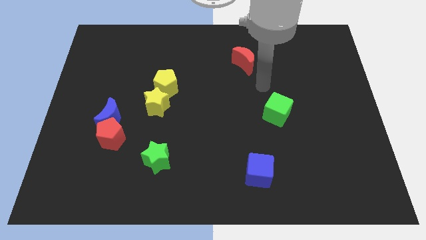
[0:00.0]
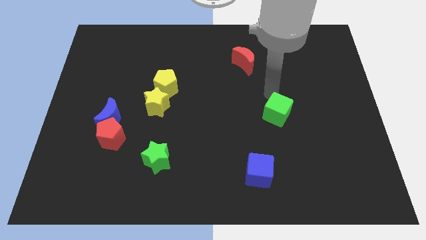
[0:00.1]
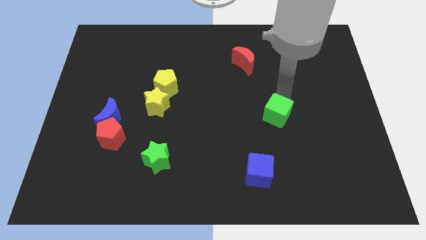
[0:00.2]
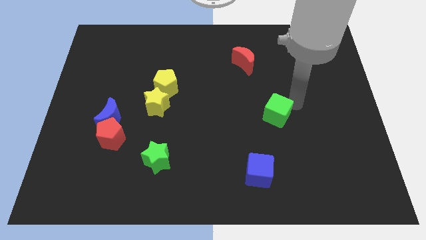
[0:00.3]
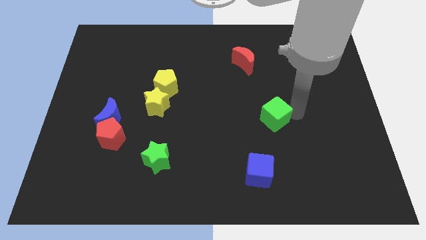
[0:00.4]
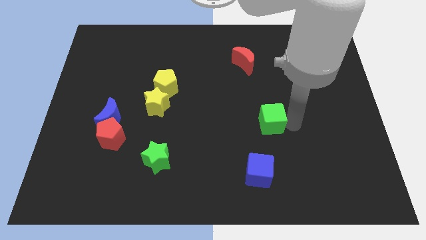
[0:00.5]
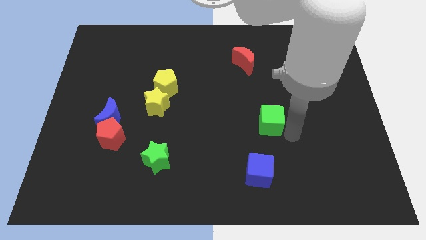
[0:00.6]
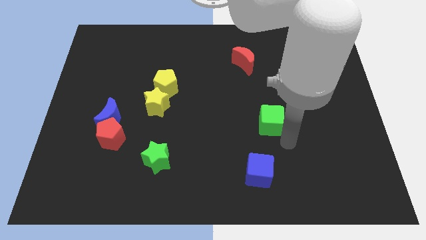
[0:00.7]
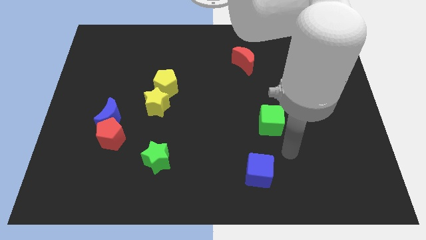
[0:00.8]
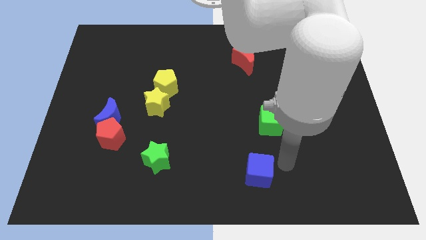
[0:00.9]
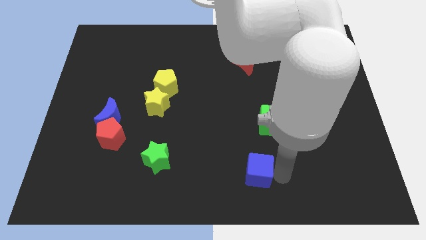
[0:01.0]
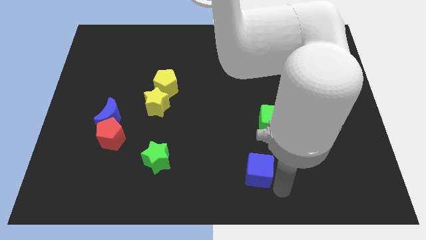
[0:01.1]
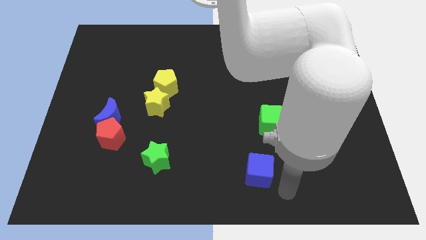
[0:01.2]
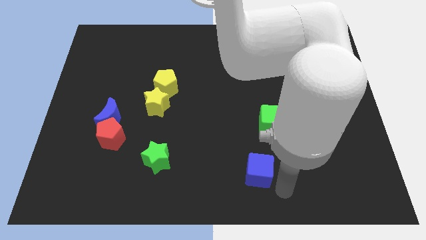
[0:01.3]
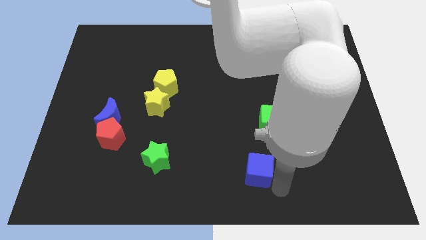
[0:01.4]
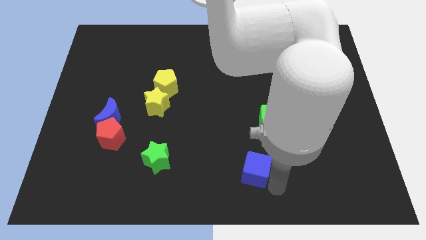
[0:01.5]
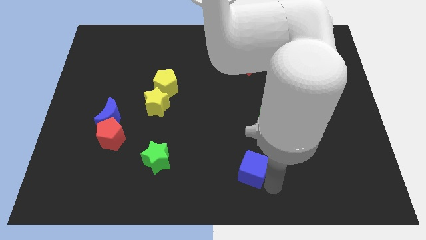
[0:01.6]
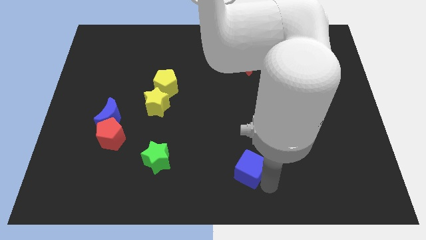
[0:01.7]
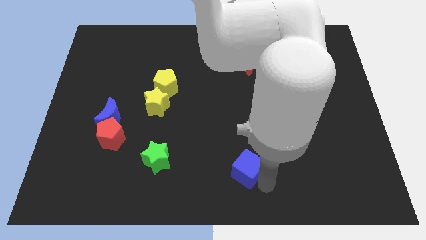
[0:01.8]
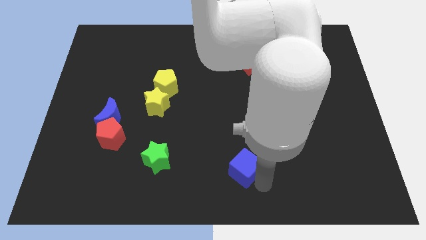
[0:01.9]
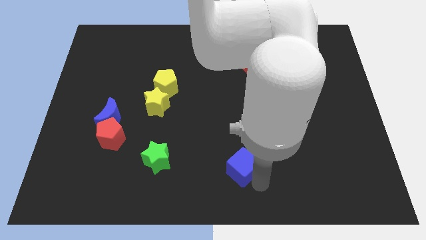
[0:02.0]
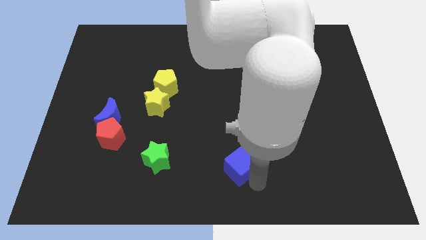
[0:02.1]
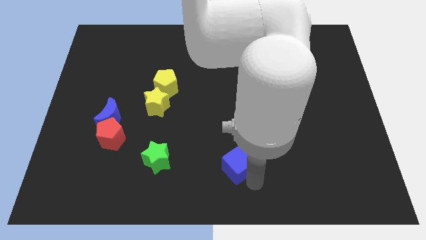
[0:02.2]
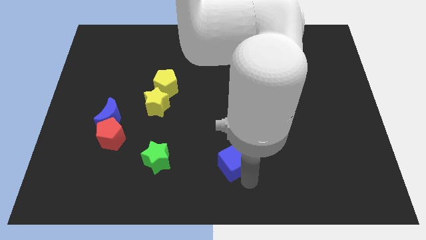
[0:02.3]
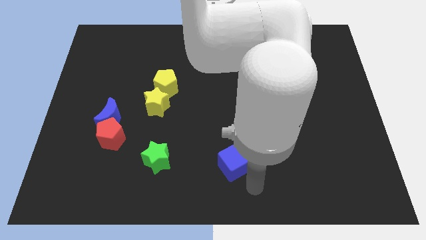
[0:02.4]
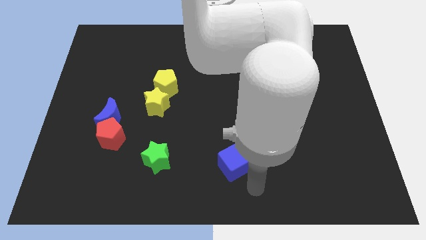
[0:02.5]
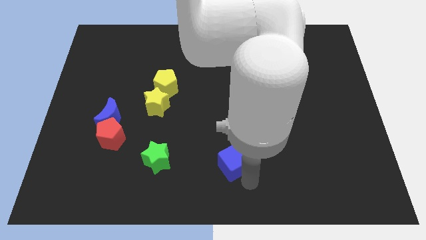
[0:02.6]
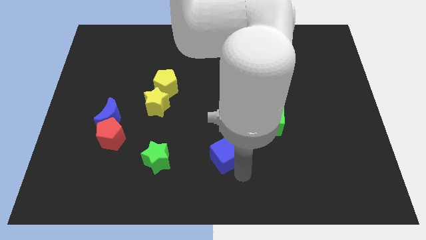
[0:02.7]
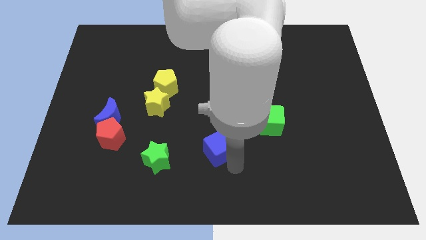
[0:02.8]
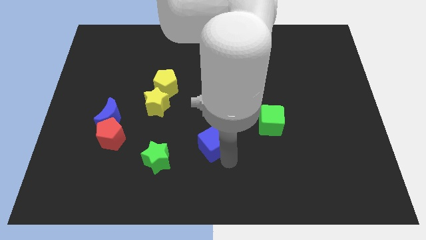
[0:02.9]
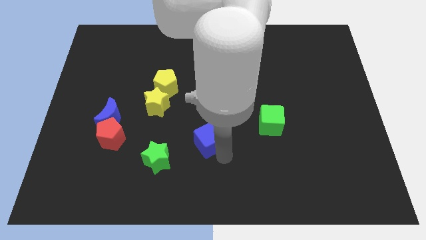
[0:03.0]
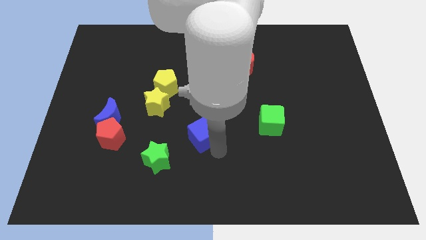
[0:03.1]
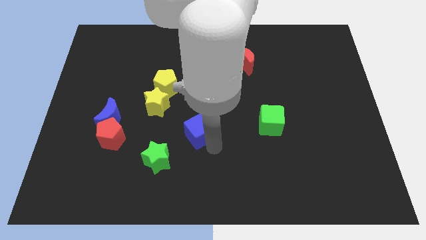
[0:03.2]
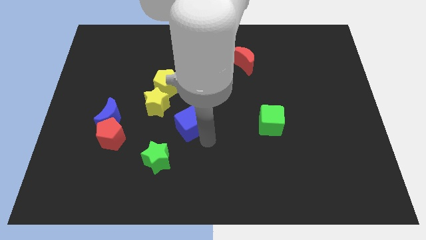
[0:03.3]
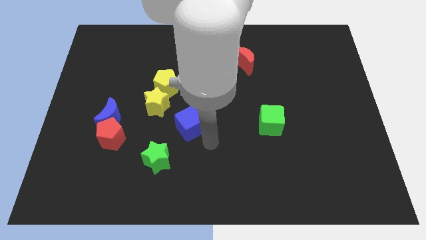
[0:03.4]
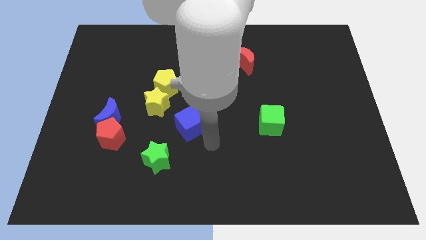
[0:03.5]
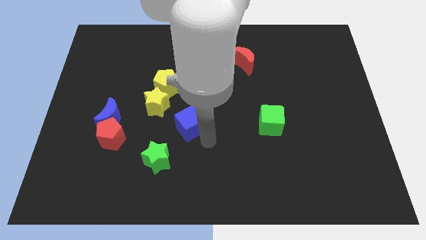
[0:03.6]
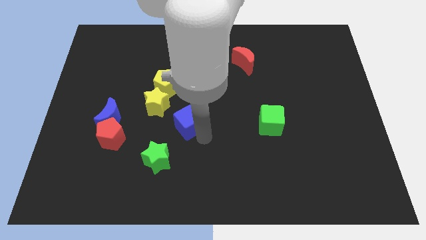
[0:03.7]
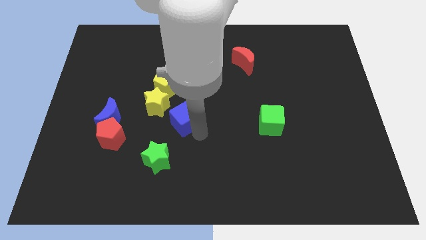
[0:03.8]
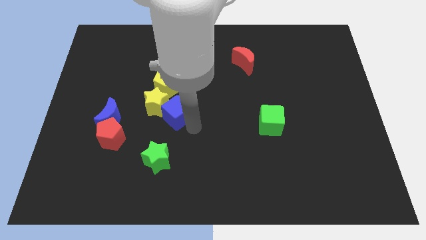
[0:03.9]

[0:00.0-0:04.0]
push the blue cube close to the yellow star

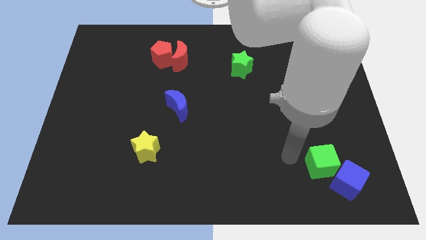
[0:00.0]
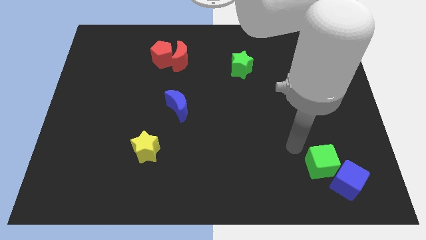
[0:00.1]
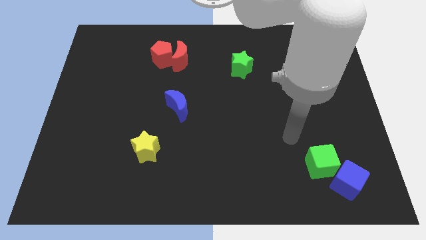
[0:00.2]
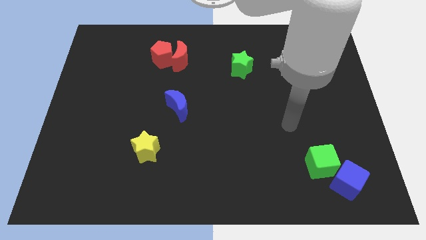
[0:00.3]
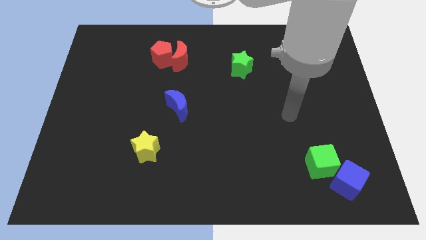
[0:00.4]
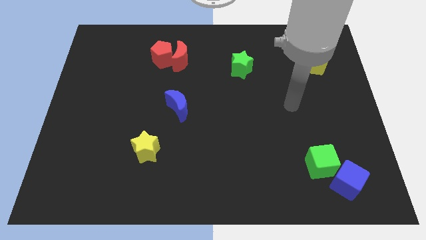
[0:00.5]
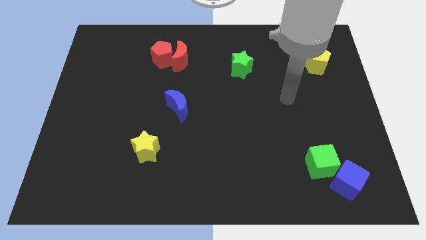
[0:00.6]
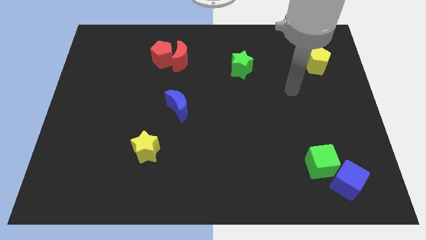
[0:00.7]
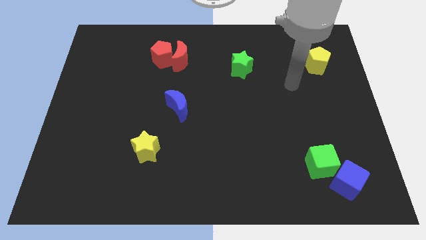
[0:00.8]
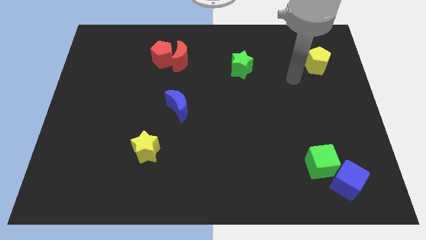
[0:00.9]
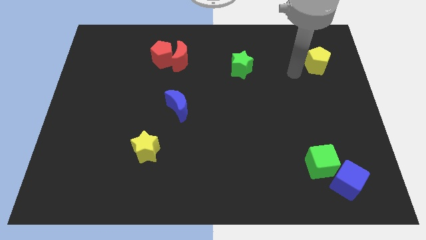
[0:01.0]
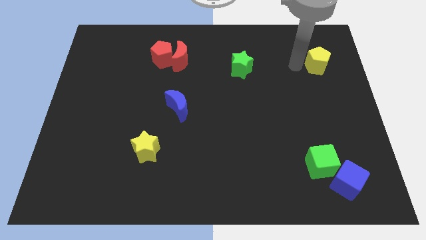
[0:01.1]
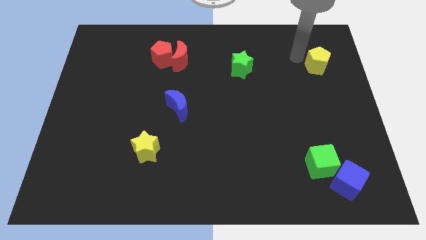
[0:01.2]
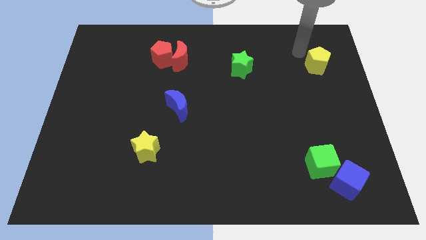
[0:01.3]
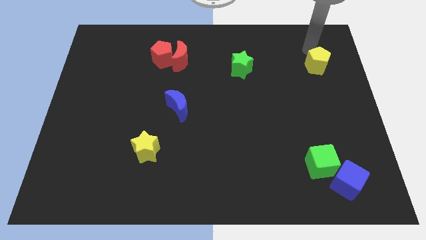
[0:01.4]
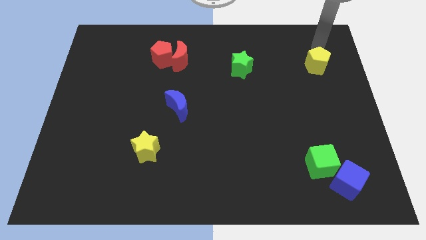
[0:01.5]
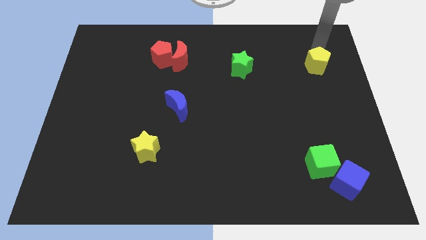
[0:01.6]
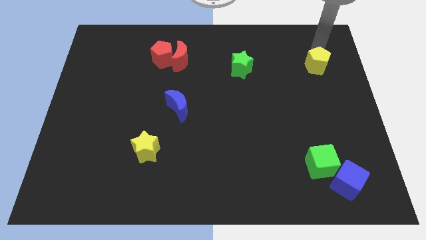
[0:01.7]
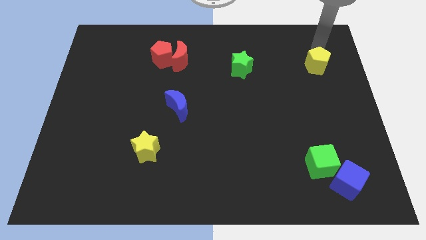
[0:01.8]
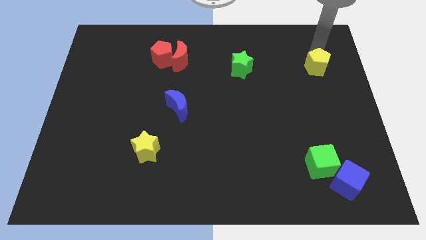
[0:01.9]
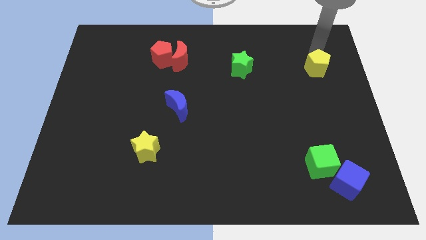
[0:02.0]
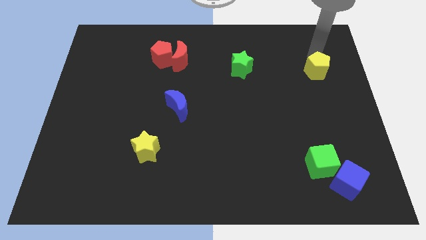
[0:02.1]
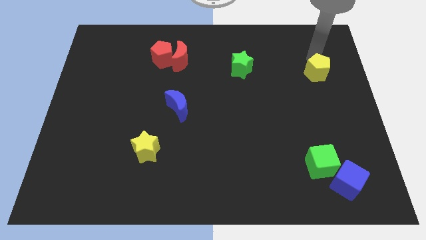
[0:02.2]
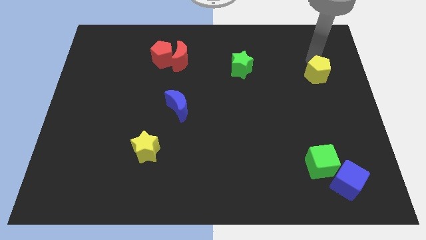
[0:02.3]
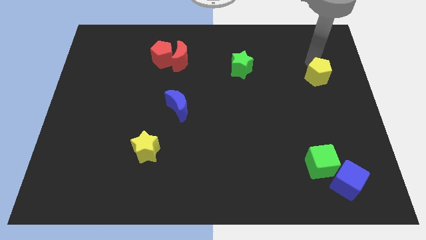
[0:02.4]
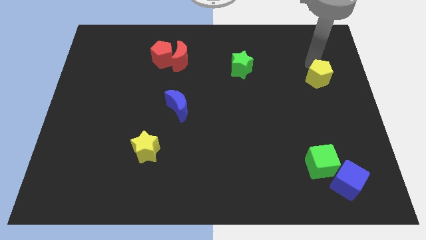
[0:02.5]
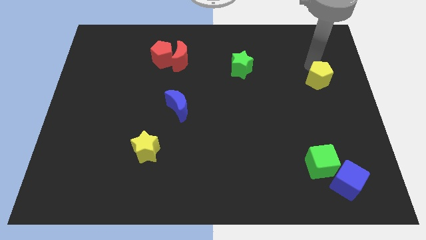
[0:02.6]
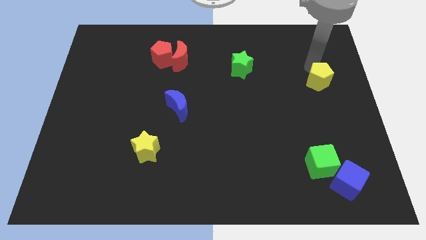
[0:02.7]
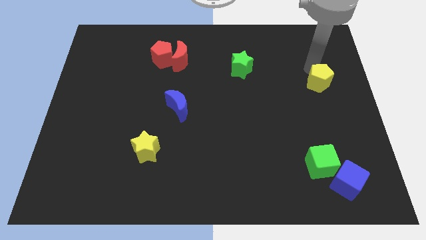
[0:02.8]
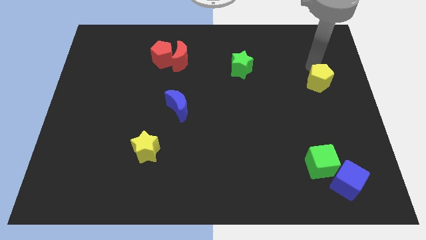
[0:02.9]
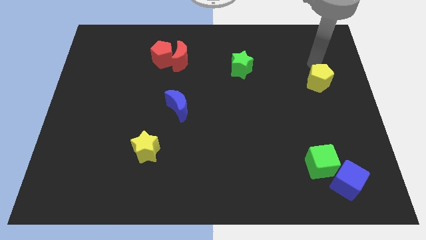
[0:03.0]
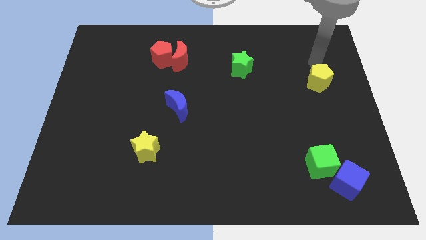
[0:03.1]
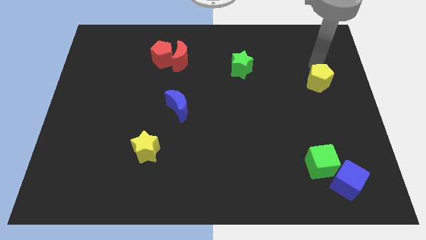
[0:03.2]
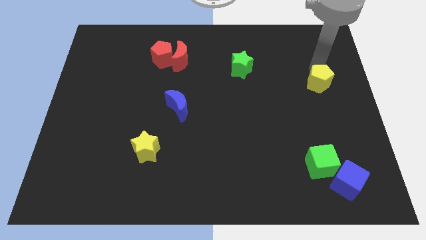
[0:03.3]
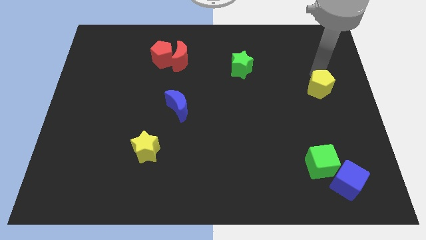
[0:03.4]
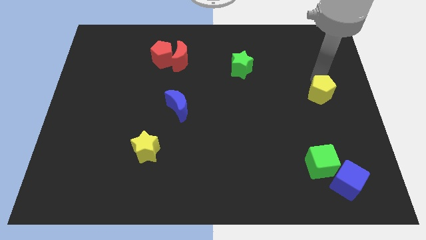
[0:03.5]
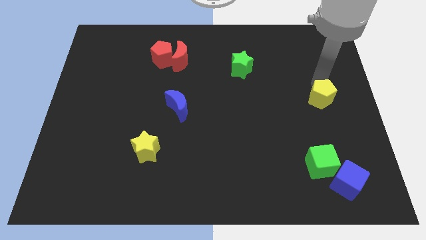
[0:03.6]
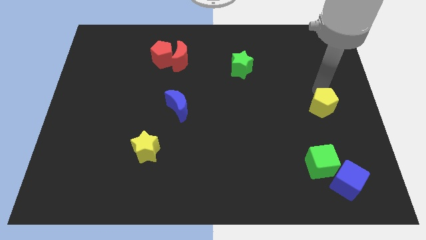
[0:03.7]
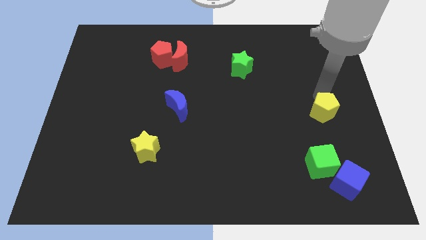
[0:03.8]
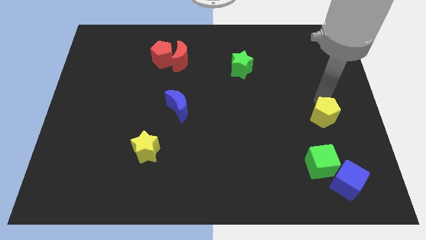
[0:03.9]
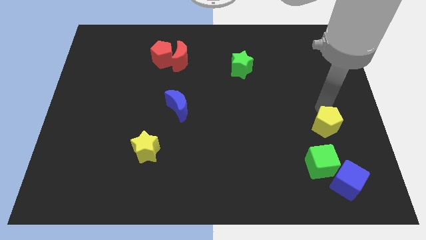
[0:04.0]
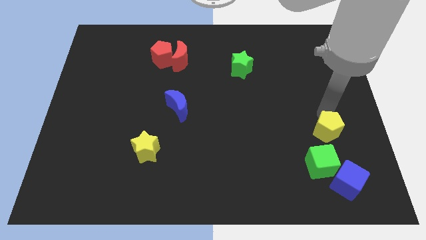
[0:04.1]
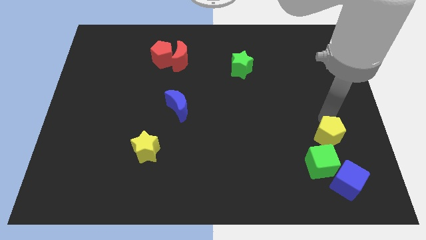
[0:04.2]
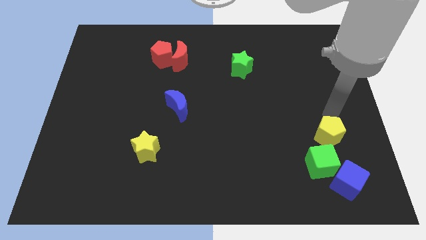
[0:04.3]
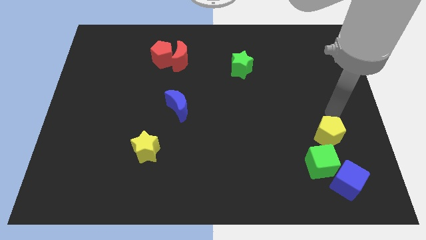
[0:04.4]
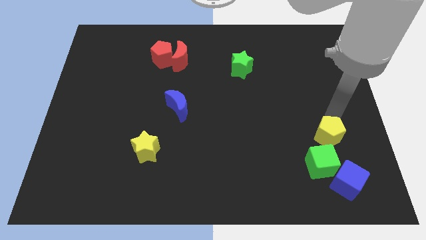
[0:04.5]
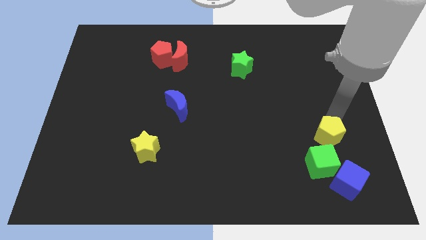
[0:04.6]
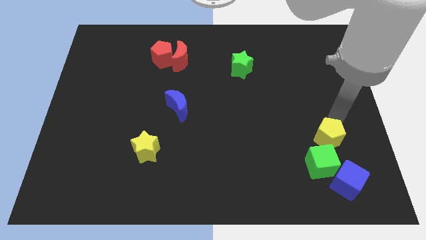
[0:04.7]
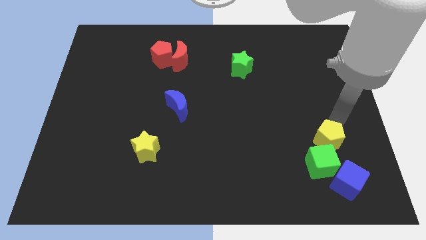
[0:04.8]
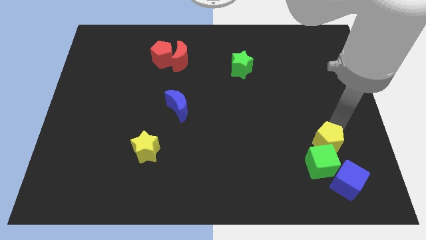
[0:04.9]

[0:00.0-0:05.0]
put the yellow pentagon towards the green cube
